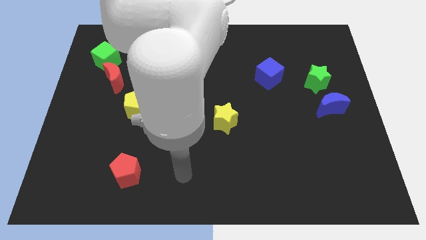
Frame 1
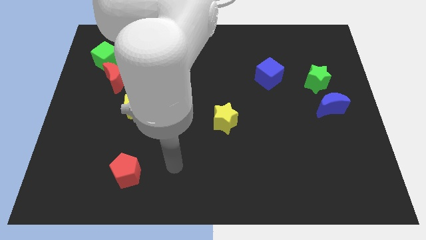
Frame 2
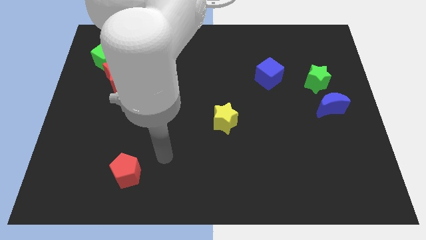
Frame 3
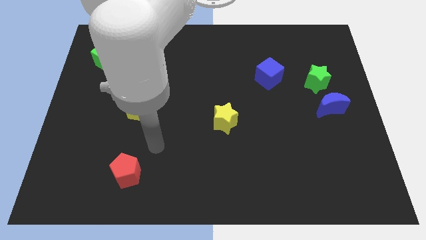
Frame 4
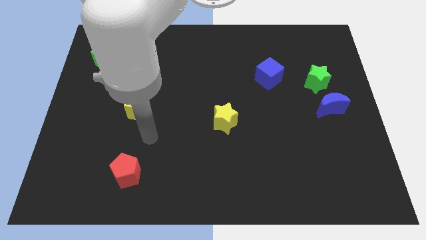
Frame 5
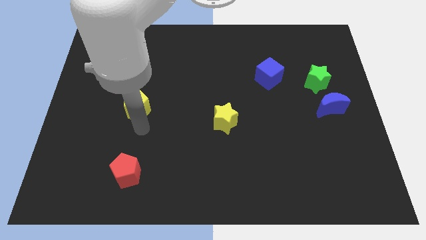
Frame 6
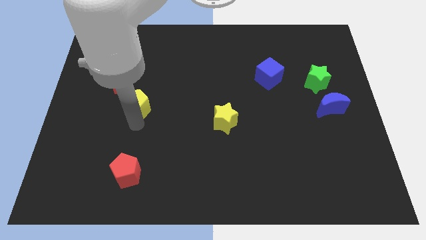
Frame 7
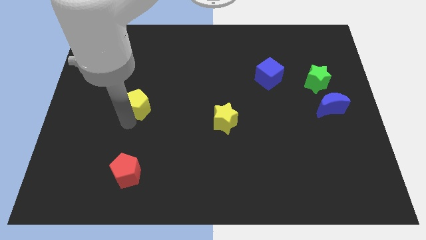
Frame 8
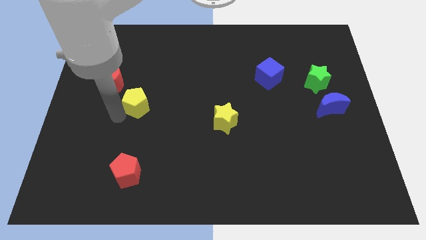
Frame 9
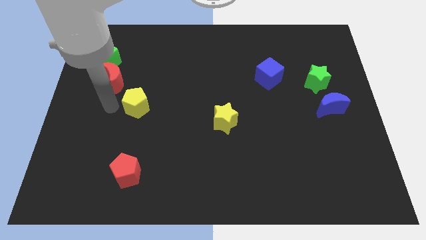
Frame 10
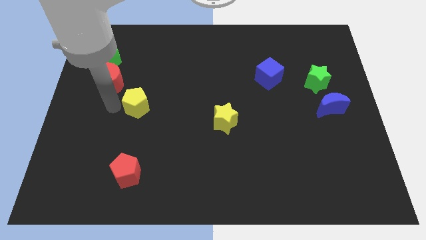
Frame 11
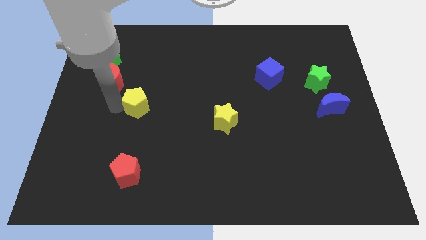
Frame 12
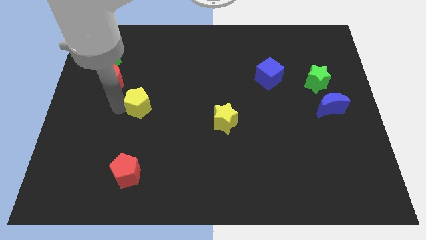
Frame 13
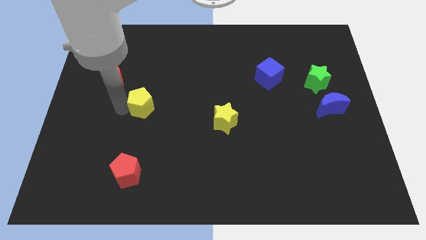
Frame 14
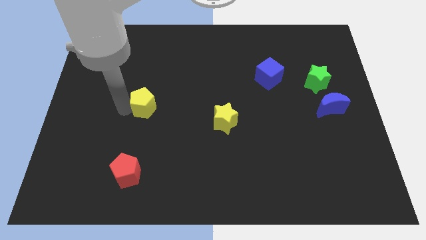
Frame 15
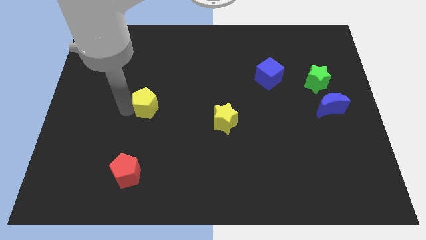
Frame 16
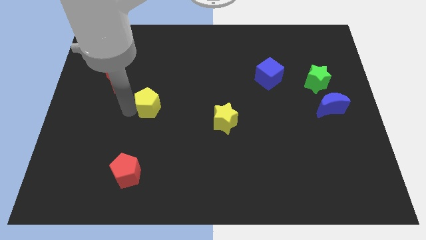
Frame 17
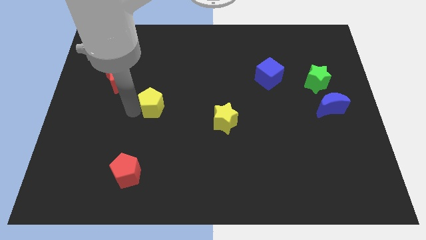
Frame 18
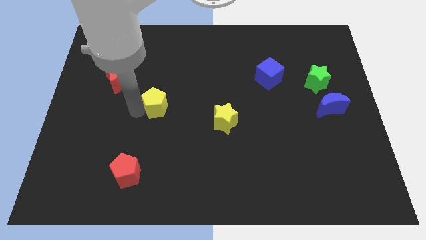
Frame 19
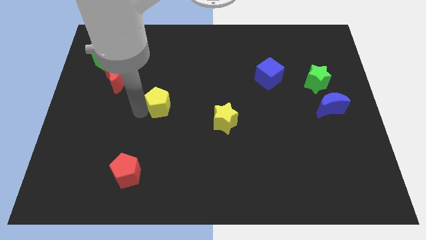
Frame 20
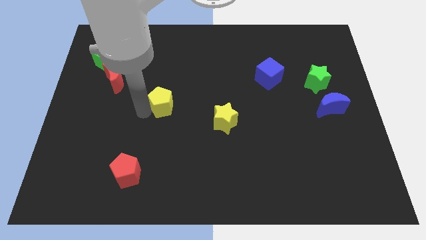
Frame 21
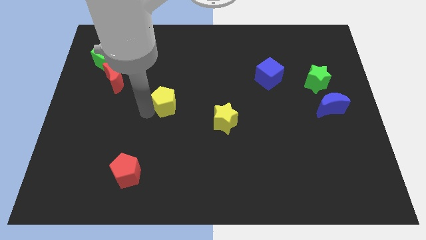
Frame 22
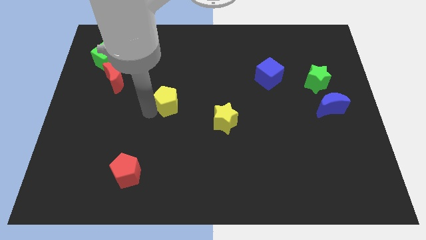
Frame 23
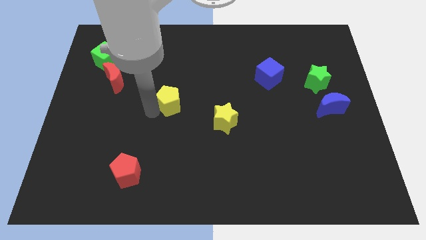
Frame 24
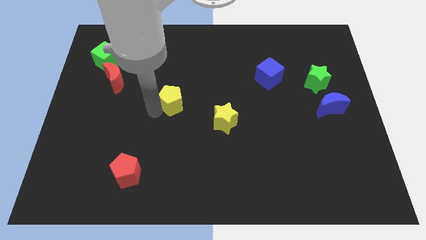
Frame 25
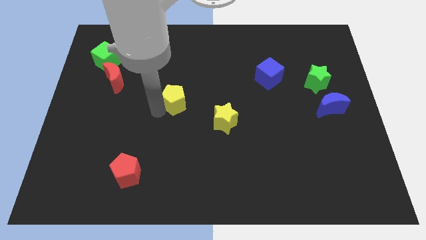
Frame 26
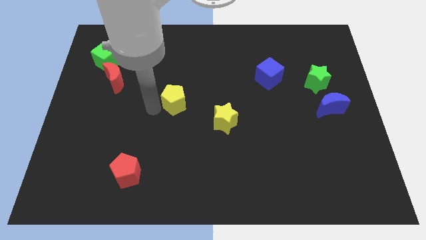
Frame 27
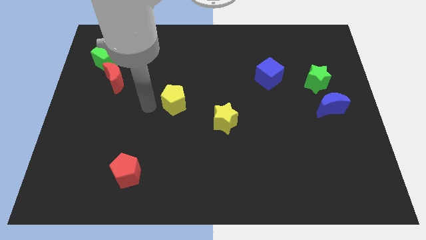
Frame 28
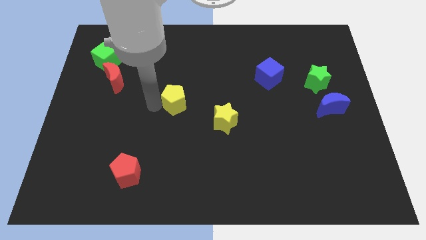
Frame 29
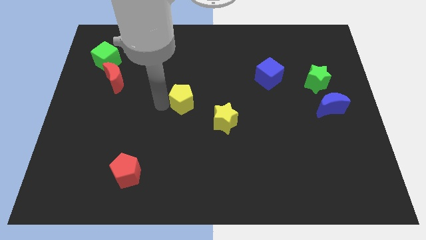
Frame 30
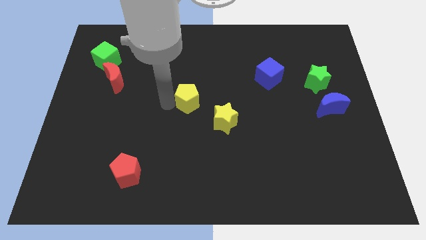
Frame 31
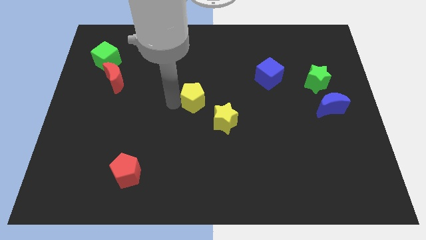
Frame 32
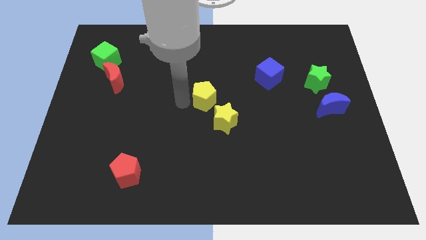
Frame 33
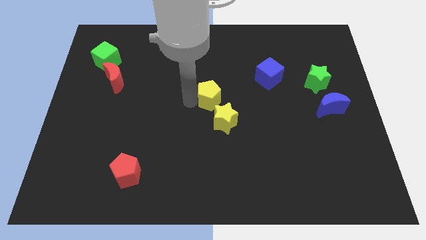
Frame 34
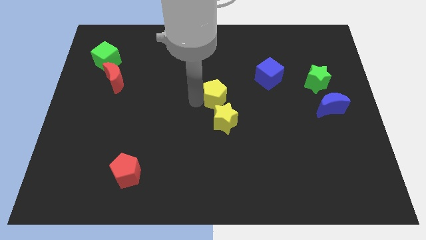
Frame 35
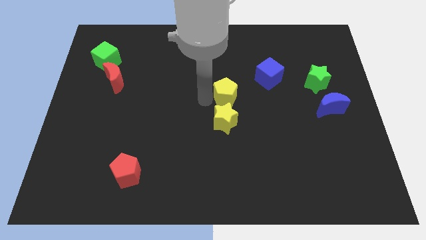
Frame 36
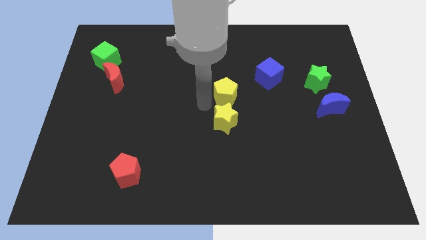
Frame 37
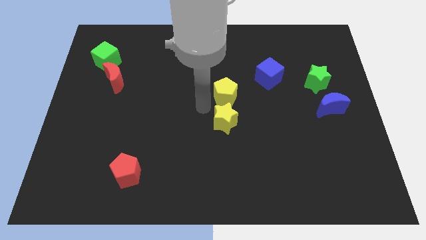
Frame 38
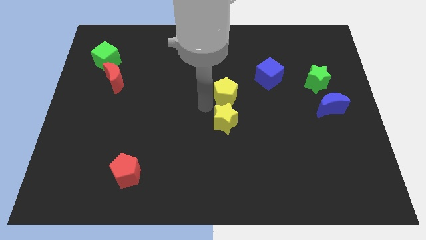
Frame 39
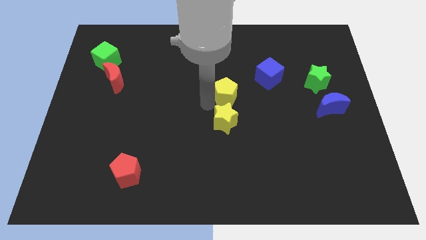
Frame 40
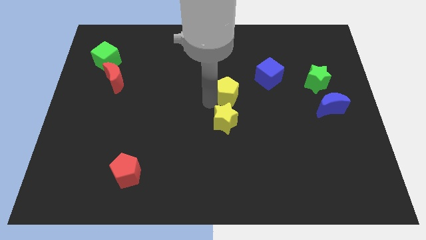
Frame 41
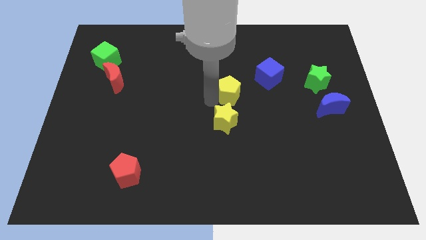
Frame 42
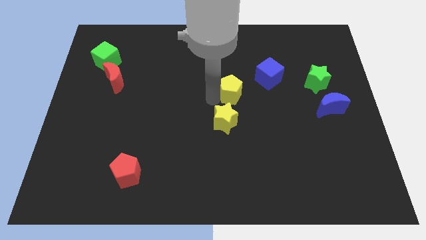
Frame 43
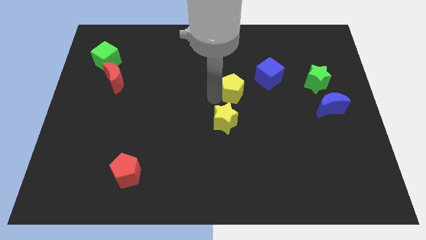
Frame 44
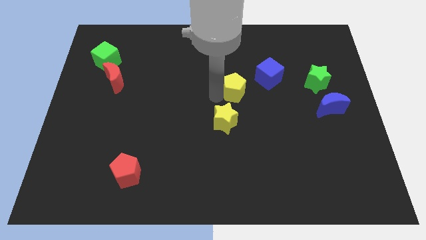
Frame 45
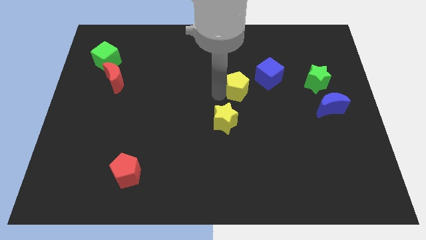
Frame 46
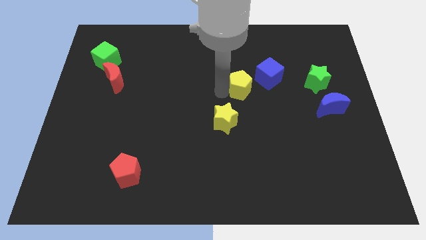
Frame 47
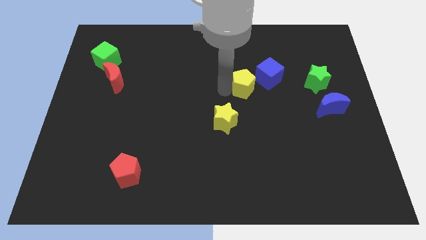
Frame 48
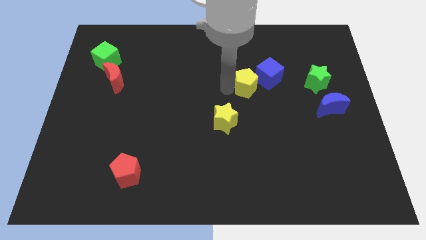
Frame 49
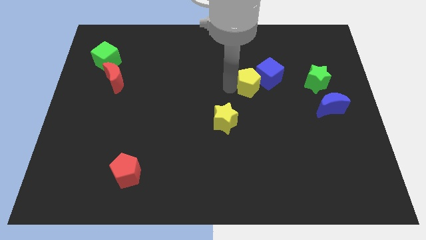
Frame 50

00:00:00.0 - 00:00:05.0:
move the yellow pentagon to the blue cube

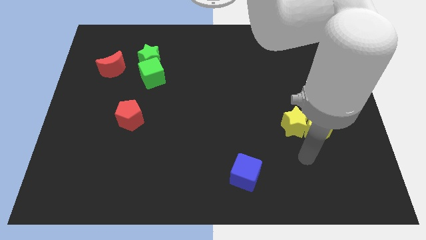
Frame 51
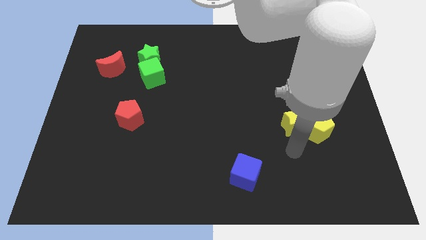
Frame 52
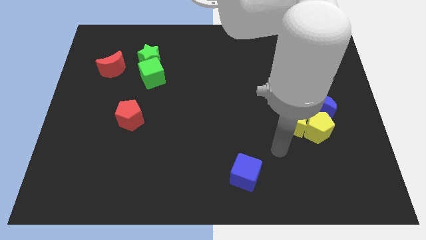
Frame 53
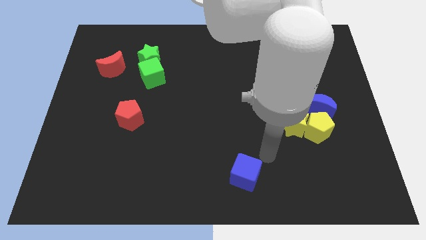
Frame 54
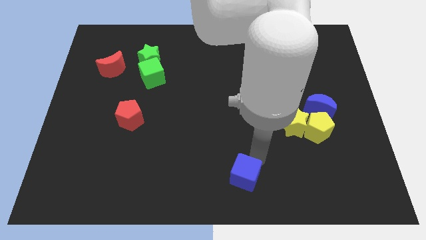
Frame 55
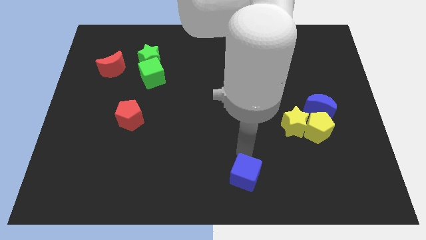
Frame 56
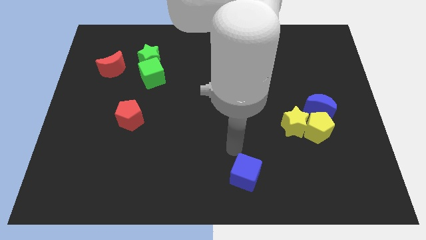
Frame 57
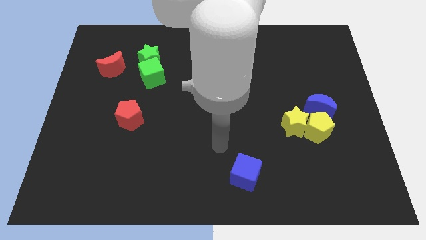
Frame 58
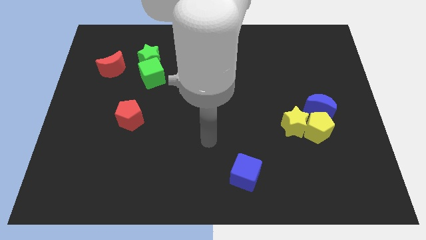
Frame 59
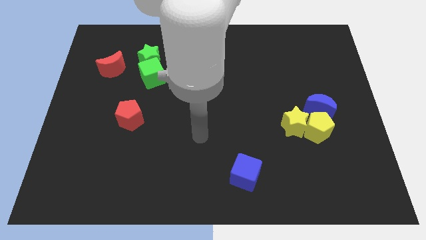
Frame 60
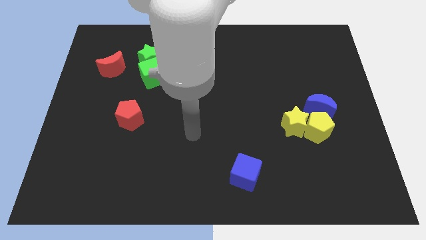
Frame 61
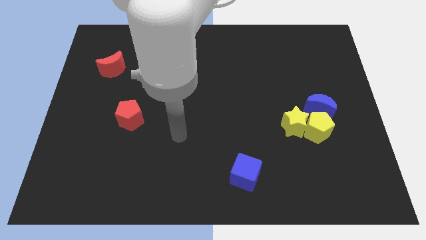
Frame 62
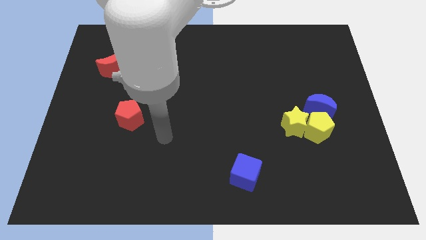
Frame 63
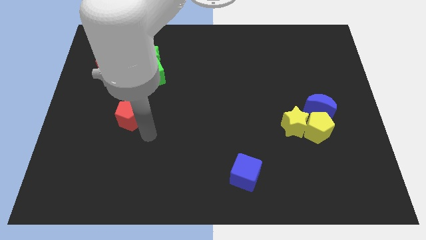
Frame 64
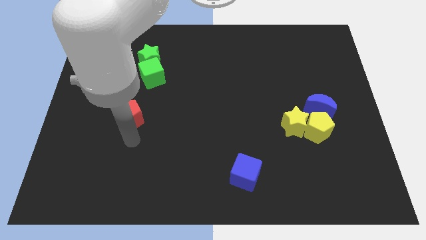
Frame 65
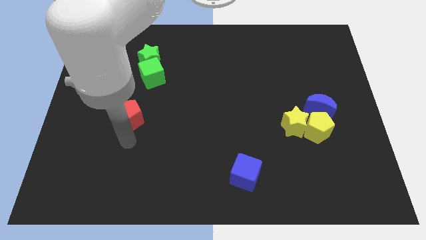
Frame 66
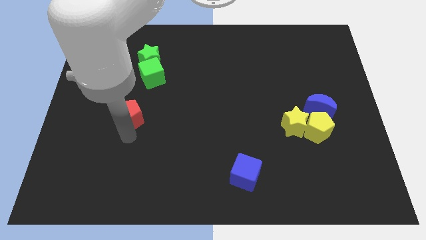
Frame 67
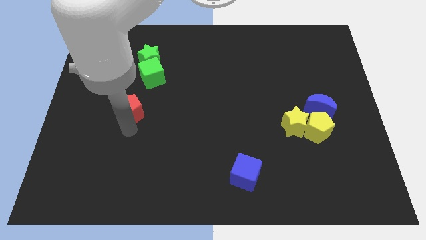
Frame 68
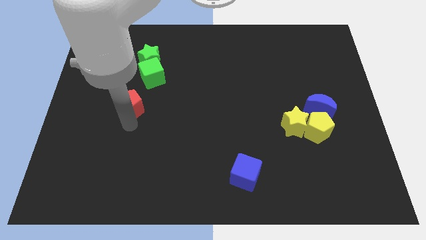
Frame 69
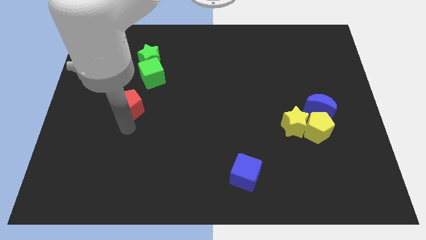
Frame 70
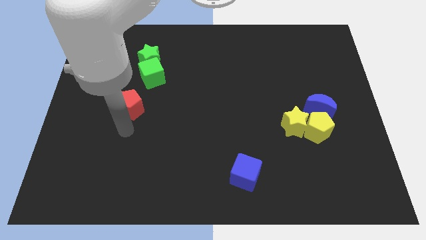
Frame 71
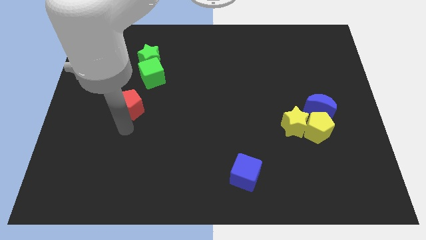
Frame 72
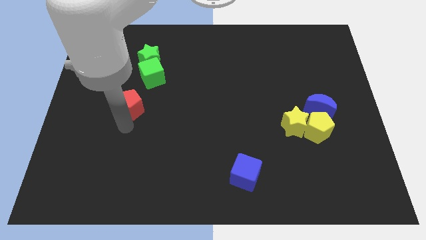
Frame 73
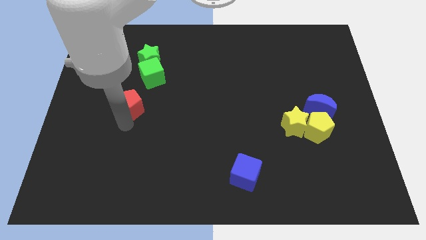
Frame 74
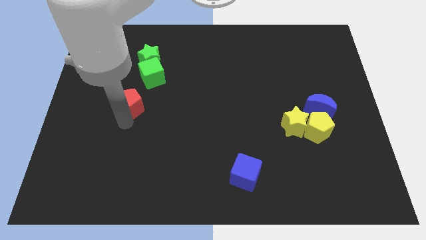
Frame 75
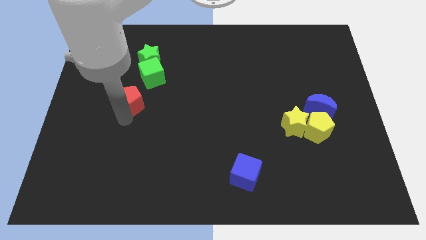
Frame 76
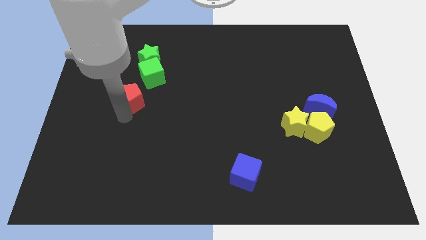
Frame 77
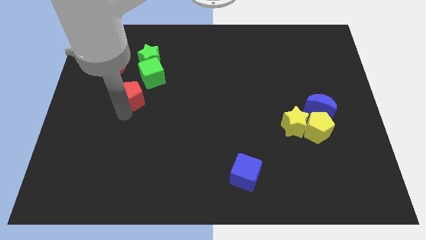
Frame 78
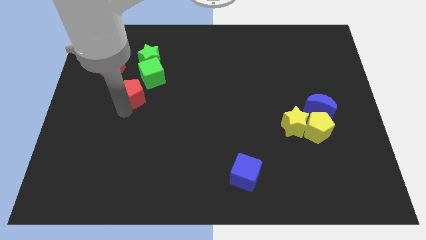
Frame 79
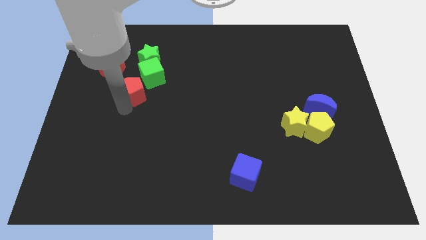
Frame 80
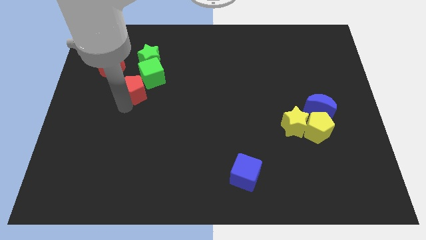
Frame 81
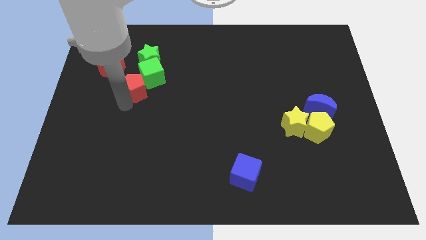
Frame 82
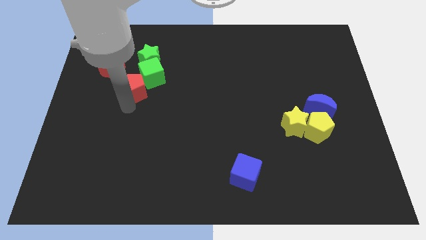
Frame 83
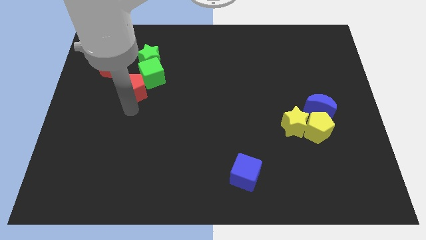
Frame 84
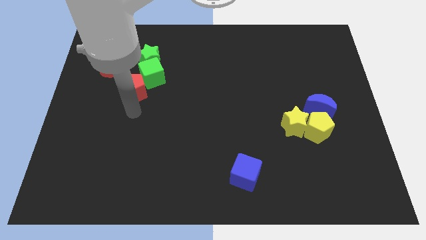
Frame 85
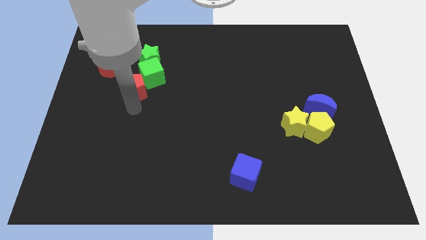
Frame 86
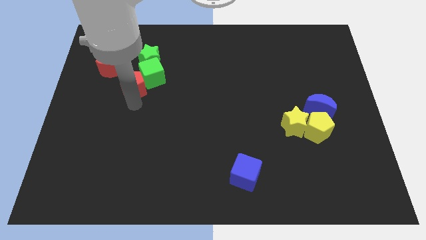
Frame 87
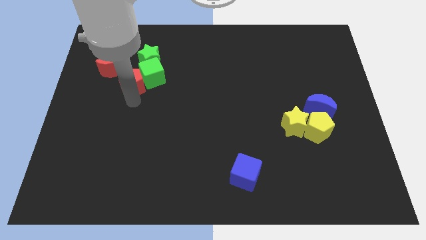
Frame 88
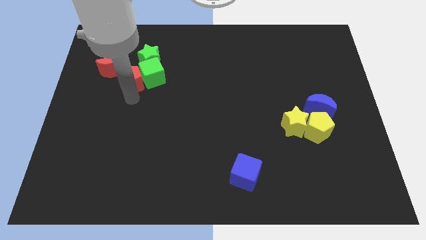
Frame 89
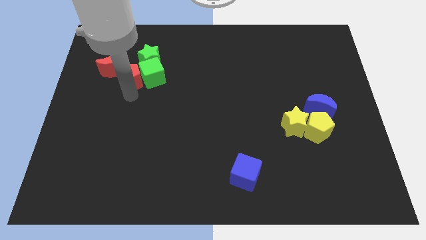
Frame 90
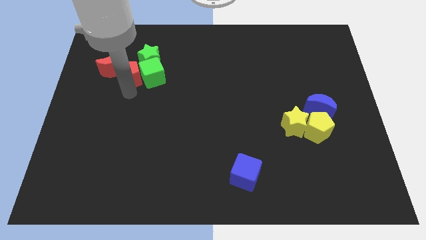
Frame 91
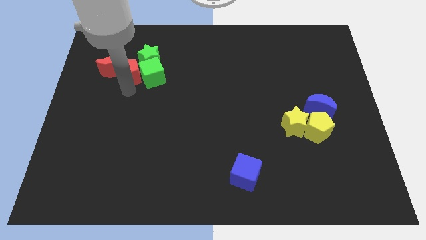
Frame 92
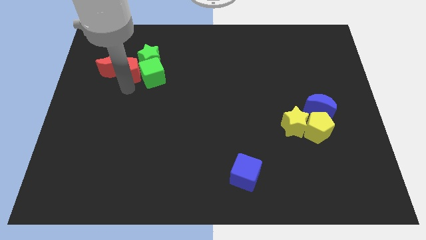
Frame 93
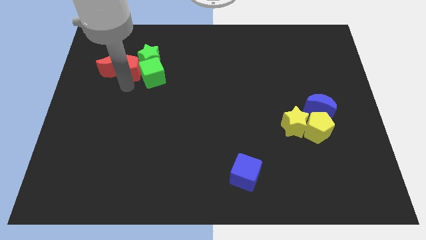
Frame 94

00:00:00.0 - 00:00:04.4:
move the red pentagon towards the green star
